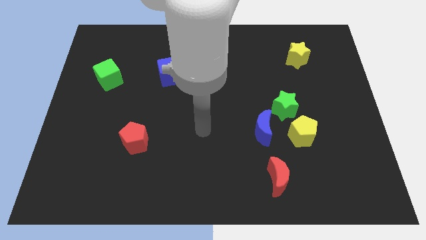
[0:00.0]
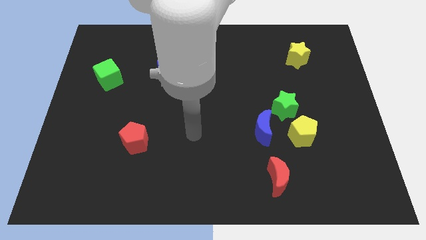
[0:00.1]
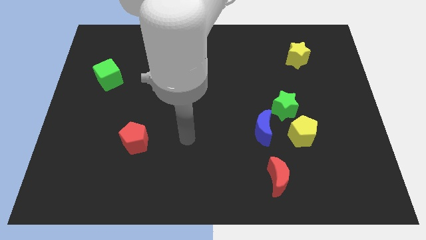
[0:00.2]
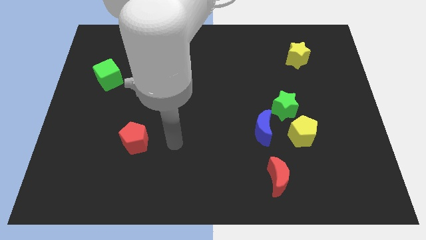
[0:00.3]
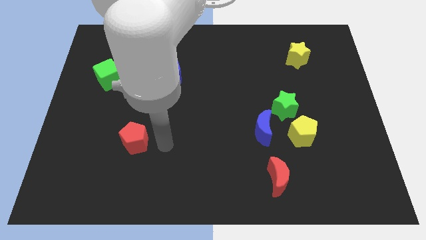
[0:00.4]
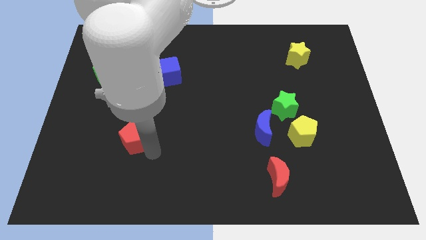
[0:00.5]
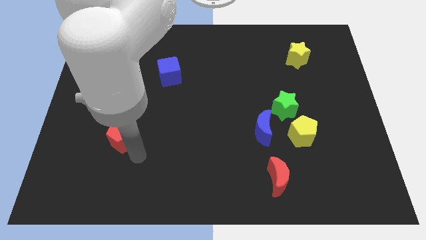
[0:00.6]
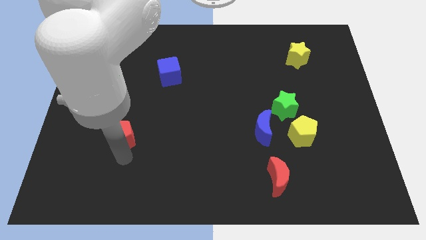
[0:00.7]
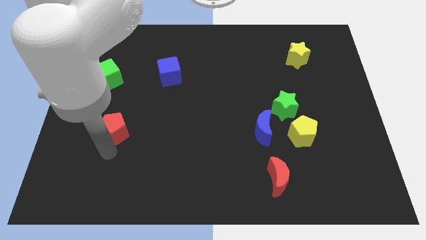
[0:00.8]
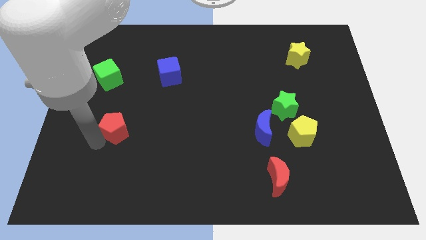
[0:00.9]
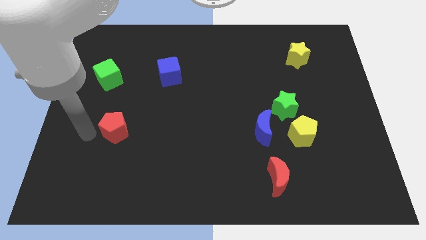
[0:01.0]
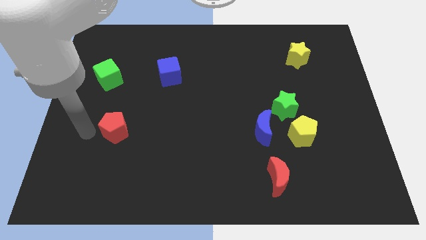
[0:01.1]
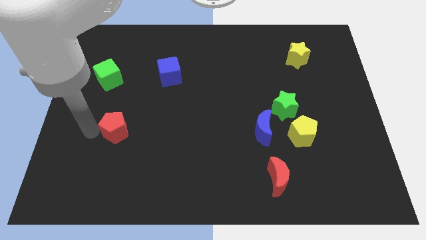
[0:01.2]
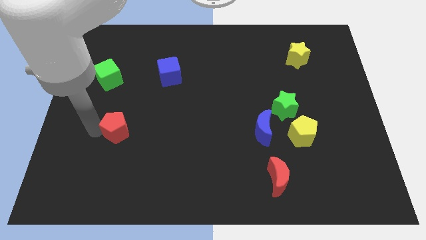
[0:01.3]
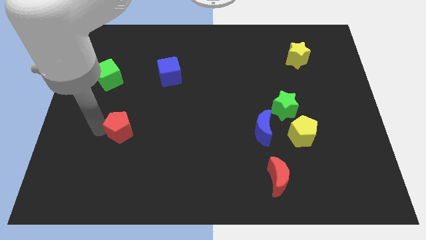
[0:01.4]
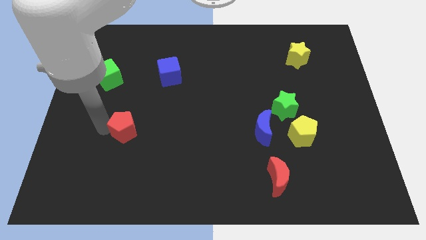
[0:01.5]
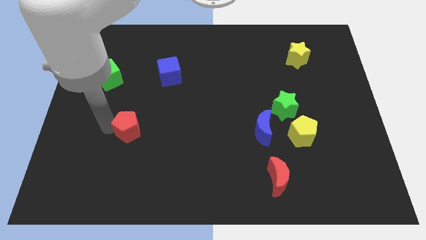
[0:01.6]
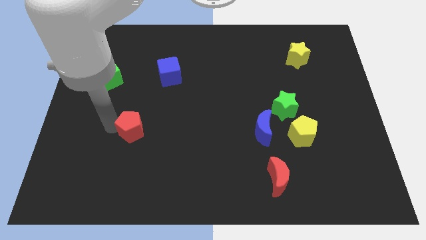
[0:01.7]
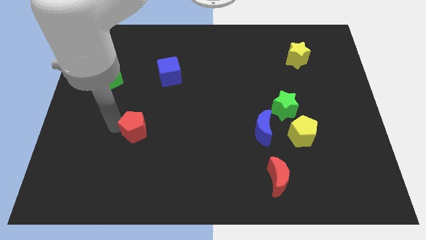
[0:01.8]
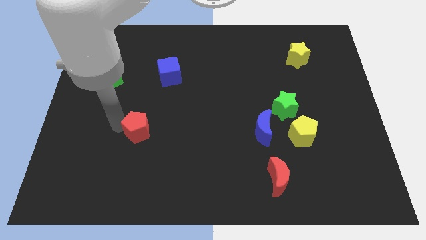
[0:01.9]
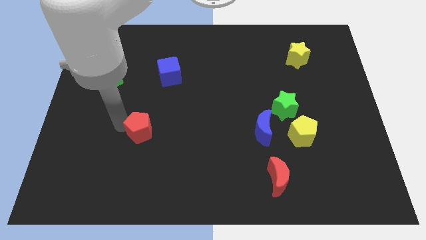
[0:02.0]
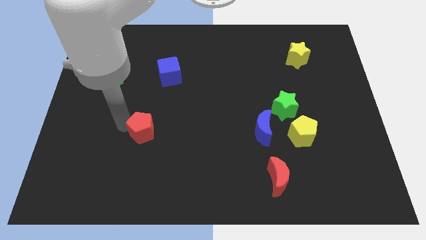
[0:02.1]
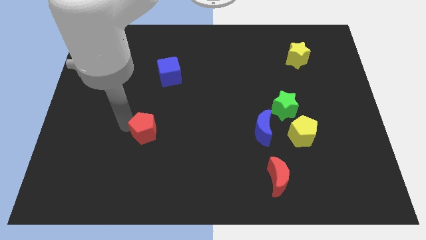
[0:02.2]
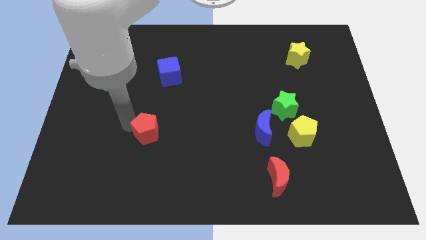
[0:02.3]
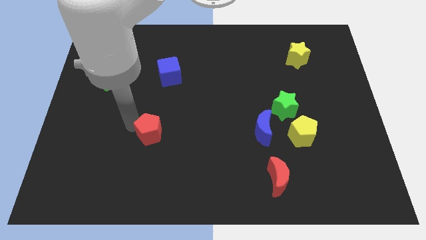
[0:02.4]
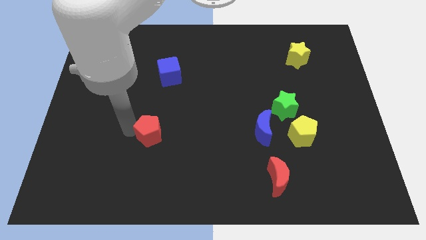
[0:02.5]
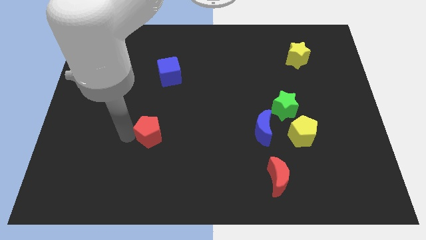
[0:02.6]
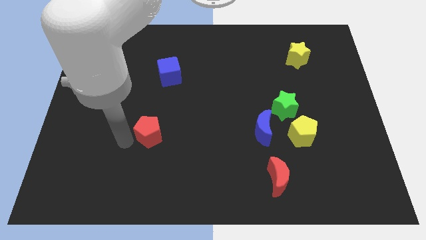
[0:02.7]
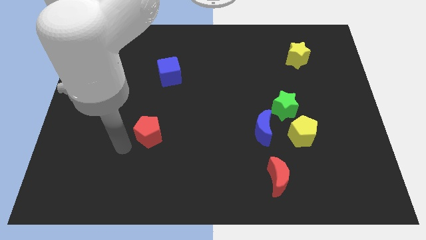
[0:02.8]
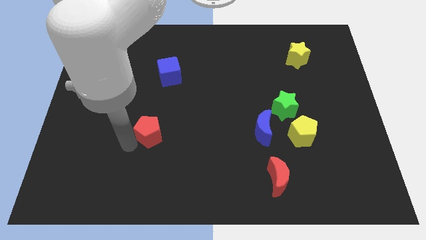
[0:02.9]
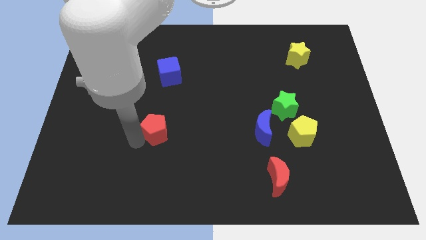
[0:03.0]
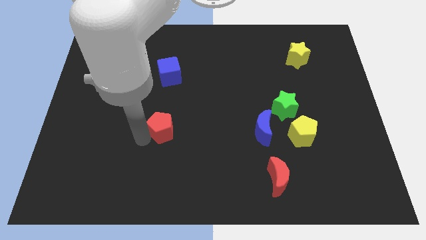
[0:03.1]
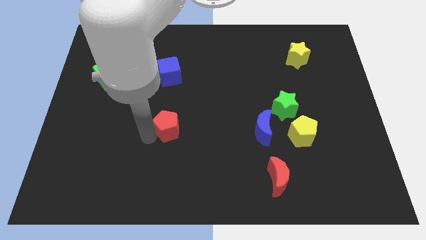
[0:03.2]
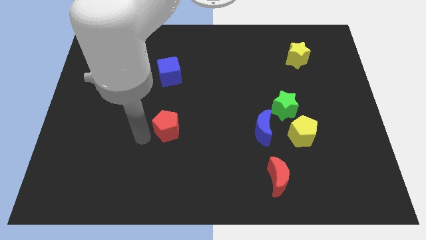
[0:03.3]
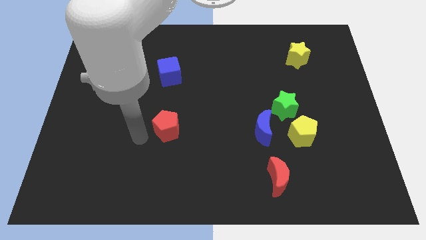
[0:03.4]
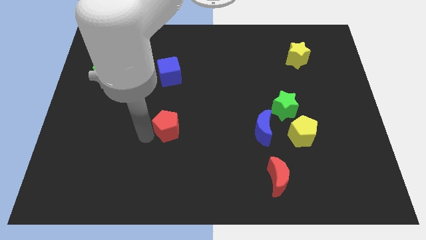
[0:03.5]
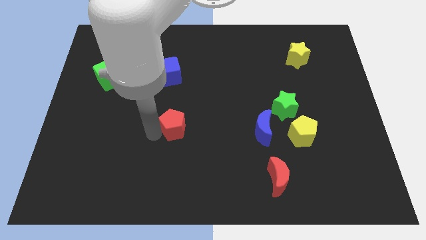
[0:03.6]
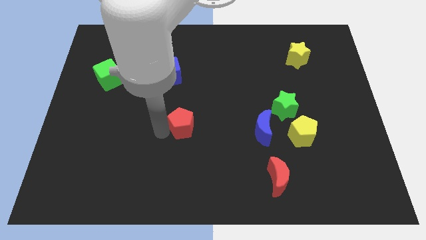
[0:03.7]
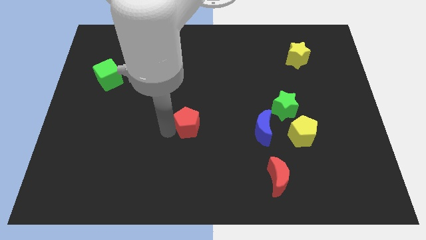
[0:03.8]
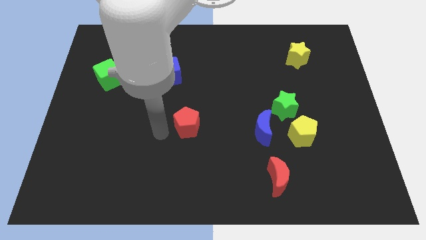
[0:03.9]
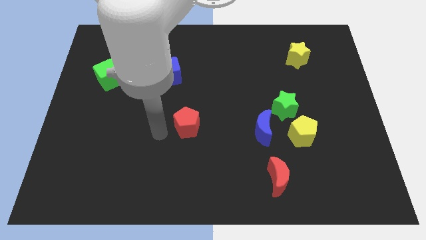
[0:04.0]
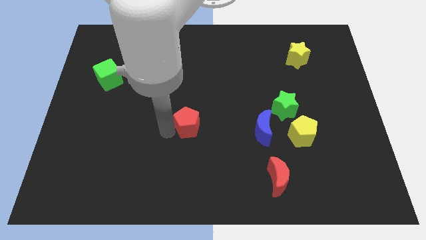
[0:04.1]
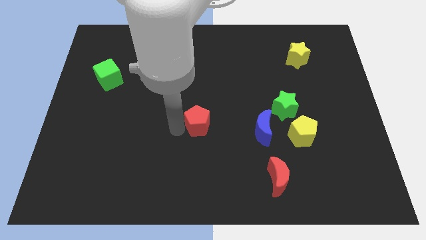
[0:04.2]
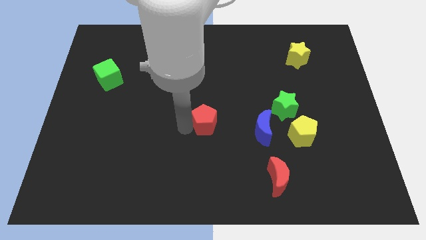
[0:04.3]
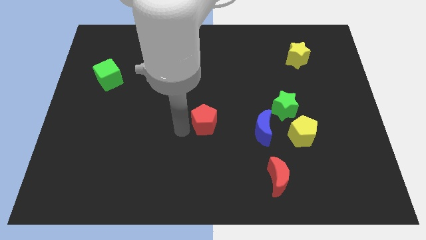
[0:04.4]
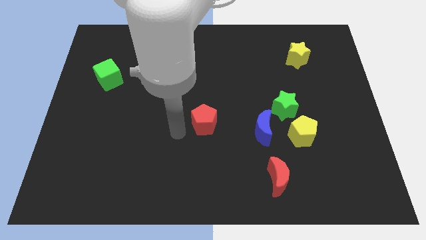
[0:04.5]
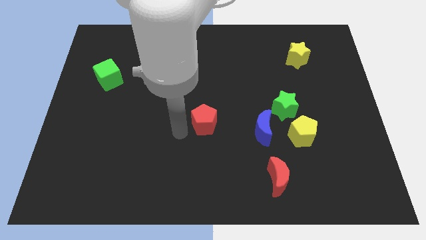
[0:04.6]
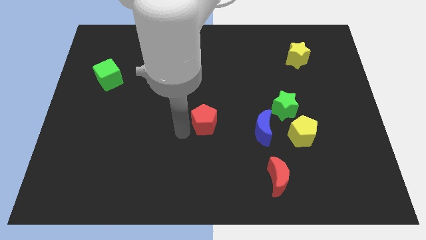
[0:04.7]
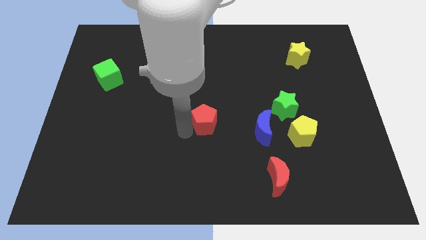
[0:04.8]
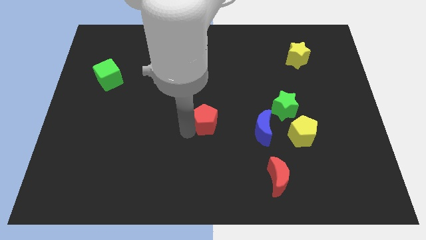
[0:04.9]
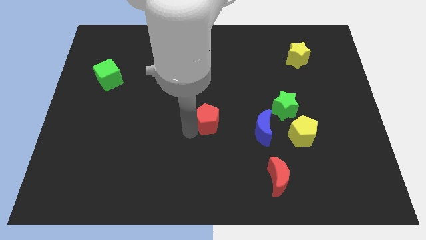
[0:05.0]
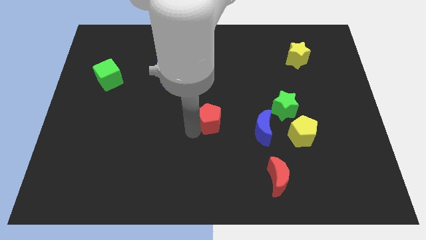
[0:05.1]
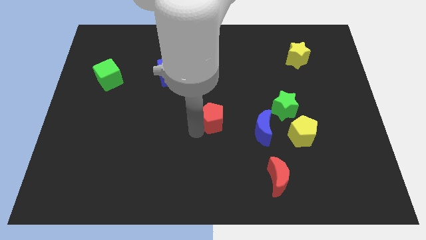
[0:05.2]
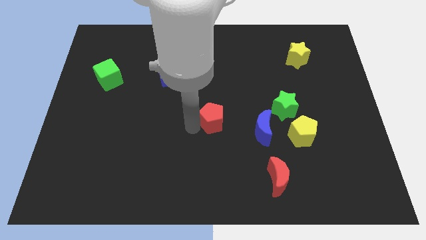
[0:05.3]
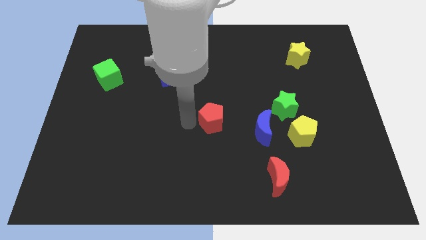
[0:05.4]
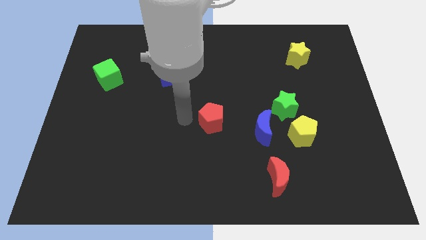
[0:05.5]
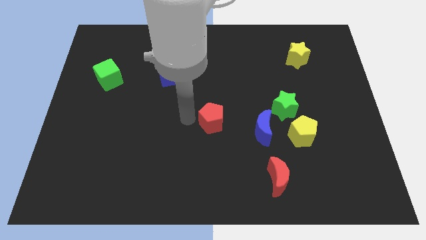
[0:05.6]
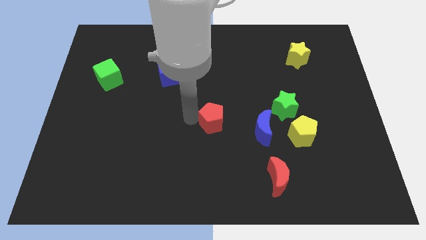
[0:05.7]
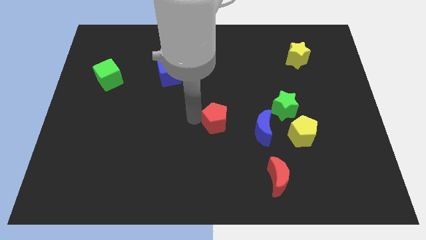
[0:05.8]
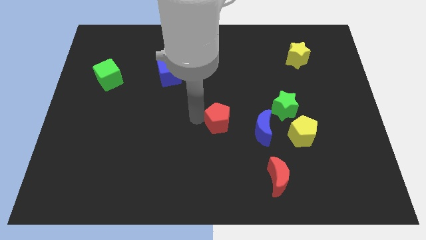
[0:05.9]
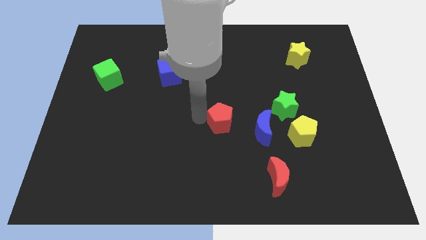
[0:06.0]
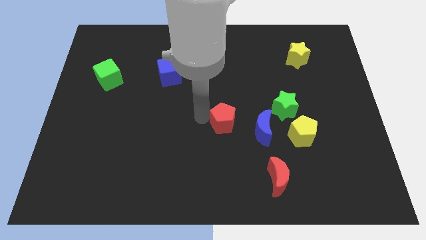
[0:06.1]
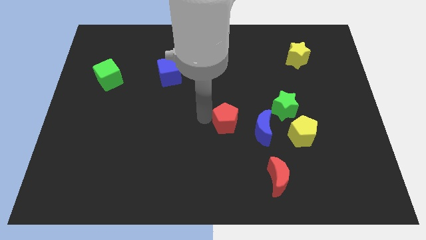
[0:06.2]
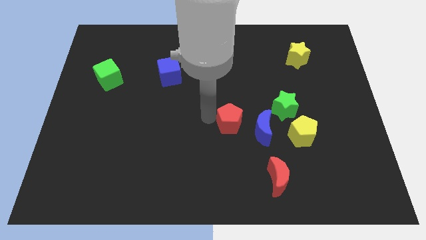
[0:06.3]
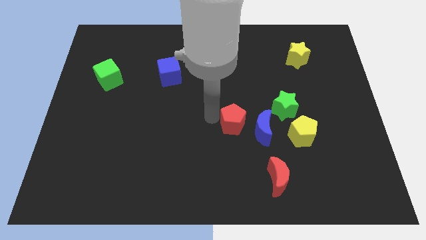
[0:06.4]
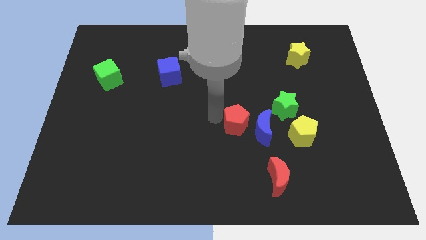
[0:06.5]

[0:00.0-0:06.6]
move the red pentagon to the blue moon

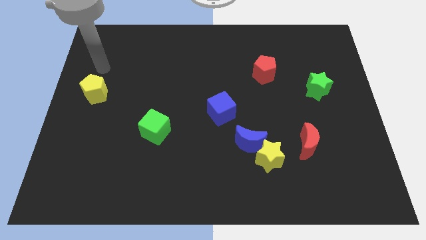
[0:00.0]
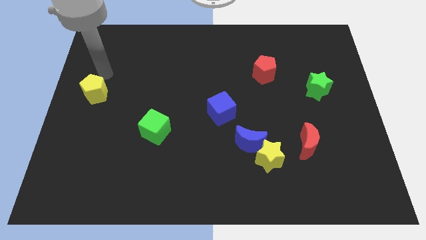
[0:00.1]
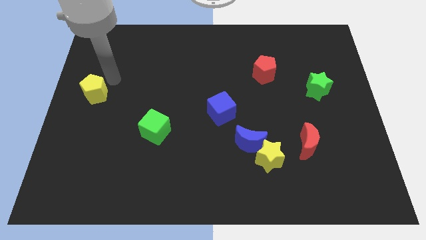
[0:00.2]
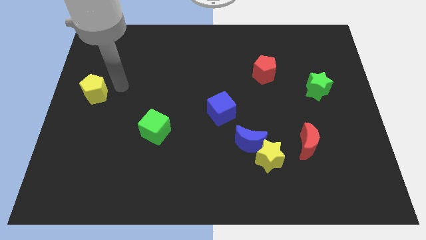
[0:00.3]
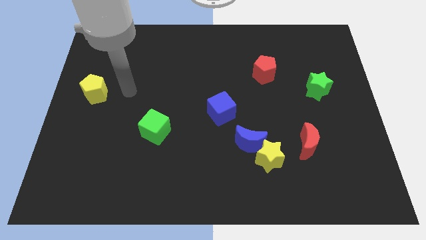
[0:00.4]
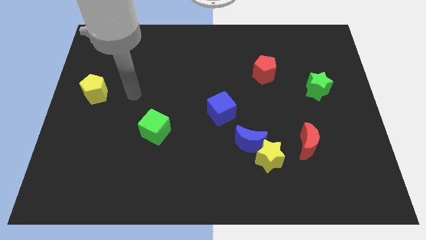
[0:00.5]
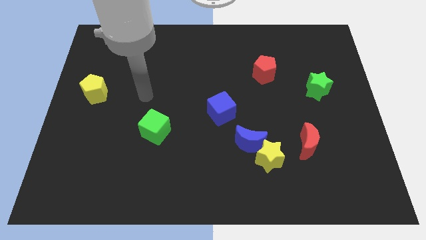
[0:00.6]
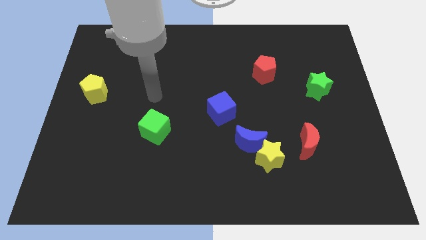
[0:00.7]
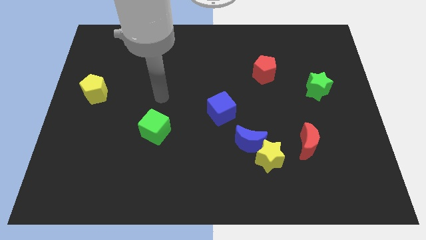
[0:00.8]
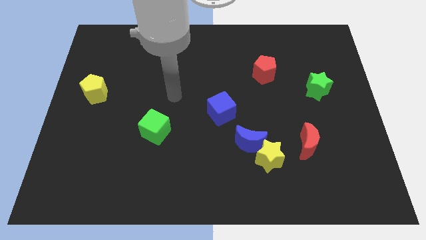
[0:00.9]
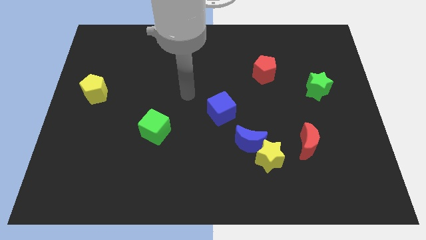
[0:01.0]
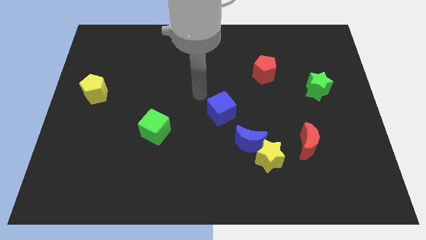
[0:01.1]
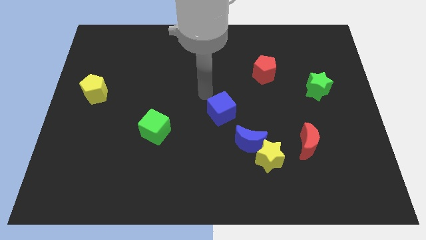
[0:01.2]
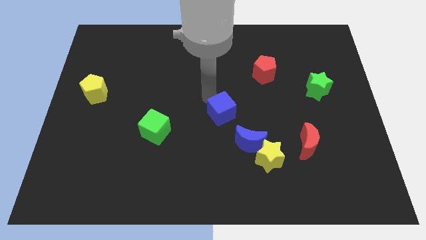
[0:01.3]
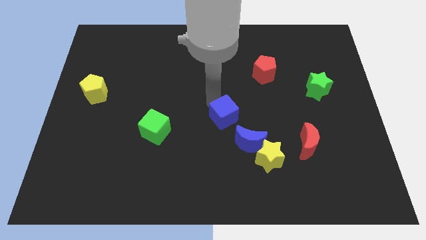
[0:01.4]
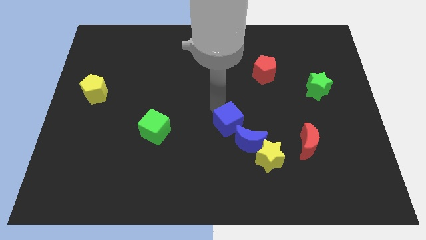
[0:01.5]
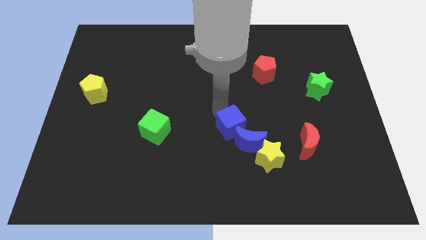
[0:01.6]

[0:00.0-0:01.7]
move the blue cube towards the blue moon
